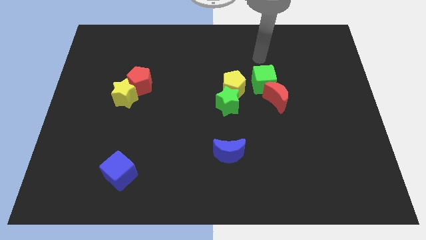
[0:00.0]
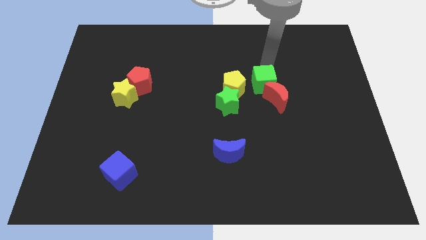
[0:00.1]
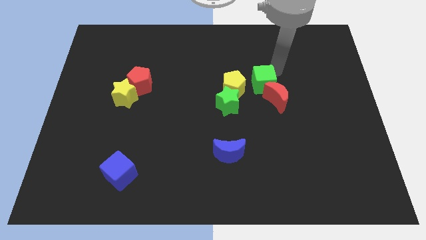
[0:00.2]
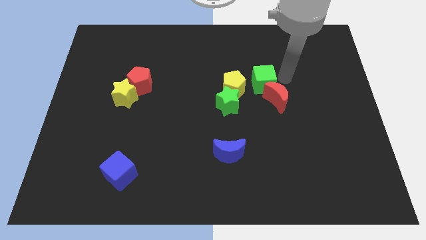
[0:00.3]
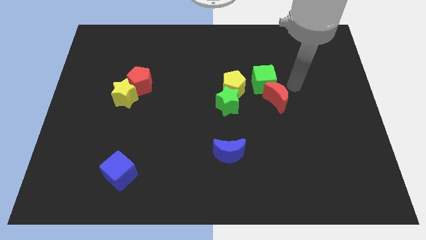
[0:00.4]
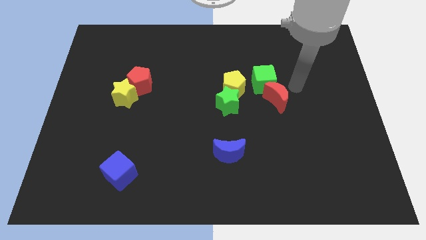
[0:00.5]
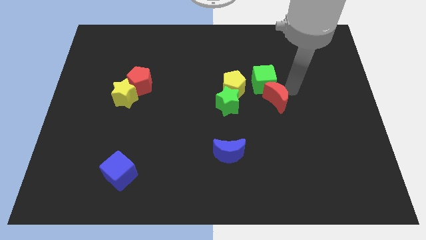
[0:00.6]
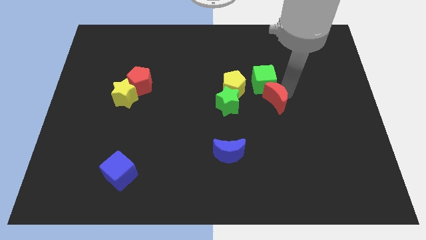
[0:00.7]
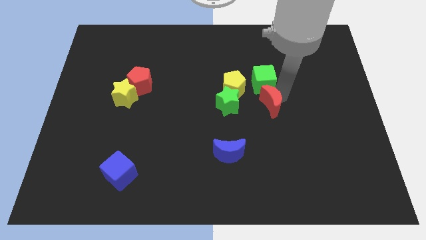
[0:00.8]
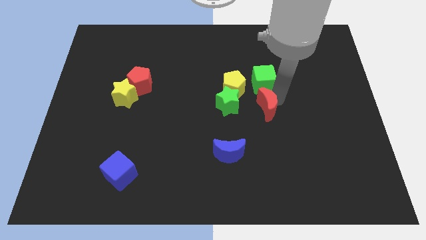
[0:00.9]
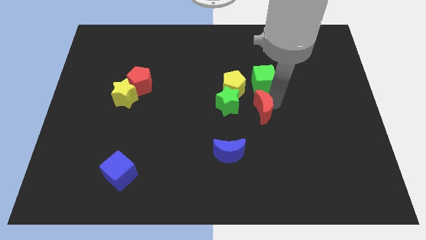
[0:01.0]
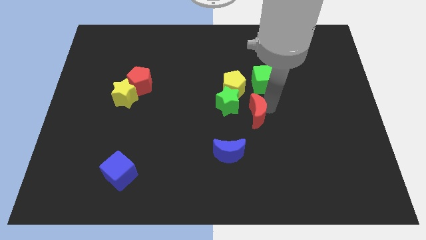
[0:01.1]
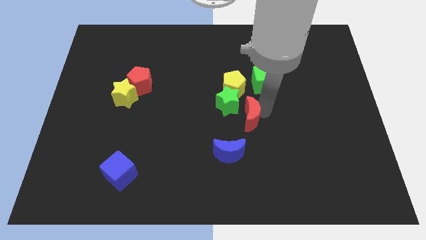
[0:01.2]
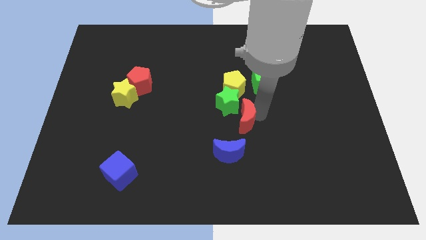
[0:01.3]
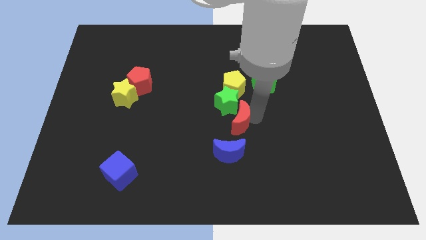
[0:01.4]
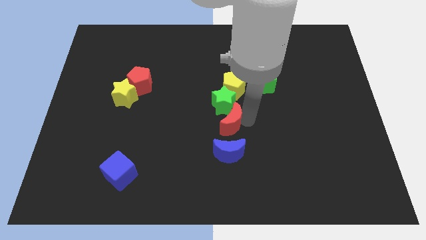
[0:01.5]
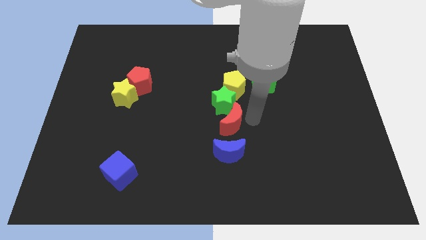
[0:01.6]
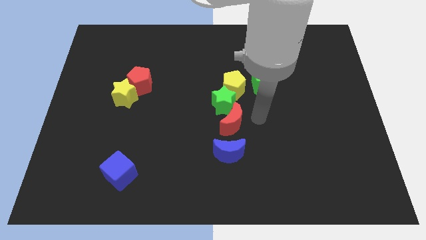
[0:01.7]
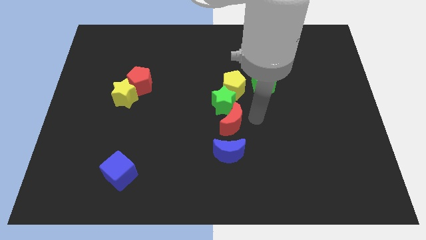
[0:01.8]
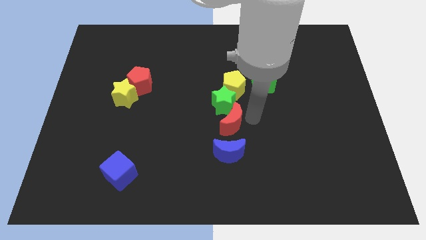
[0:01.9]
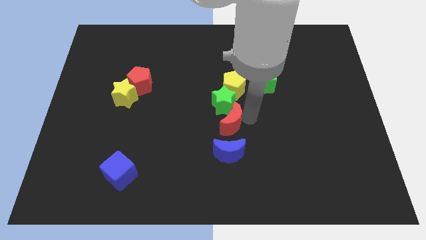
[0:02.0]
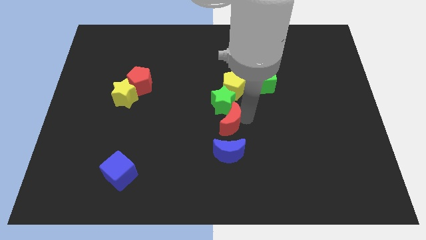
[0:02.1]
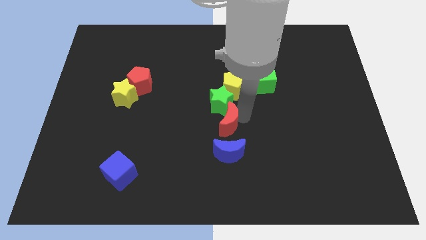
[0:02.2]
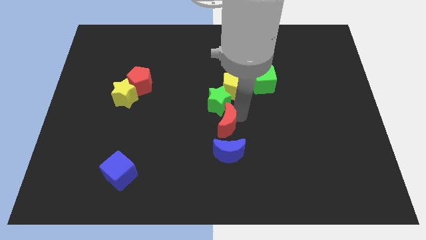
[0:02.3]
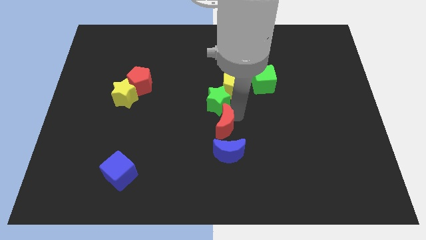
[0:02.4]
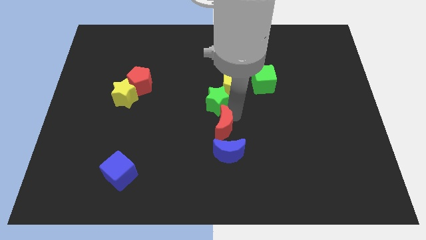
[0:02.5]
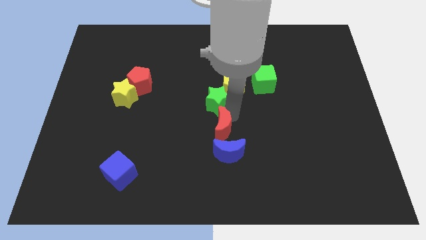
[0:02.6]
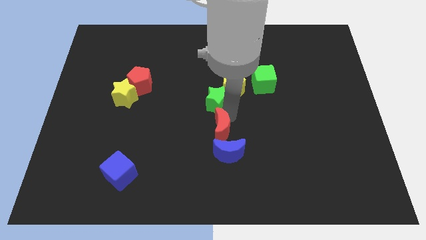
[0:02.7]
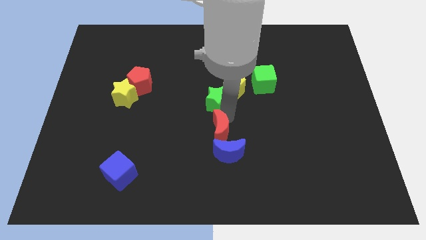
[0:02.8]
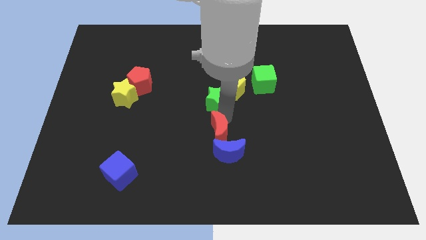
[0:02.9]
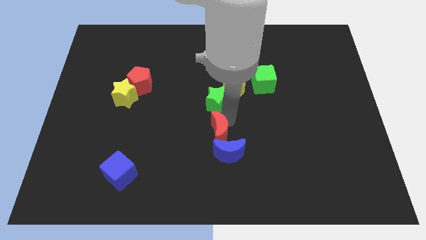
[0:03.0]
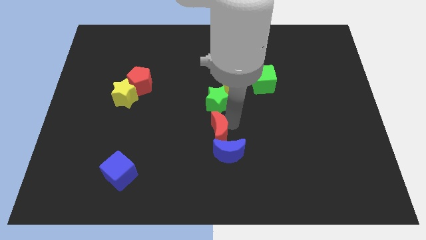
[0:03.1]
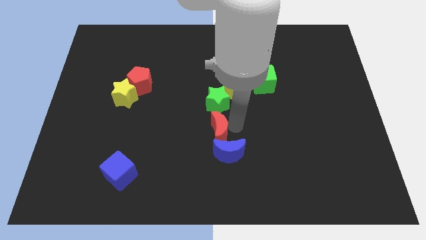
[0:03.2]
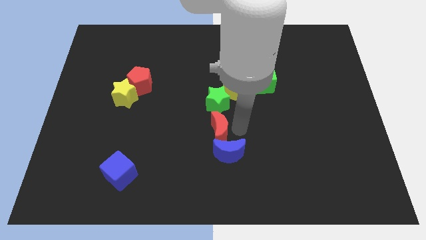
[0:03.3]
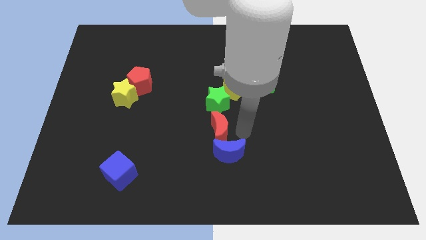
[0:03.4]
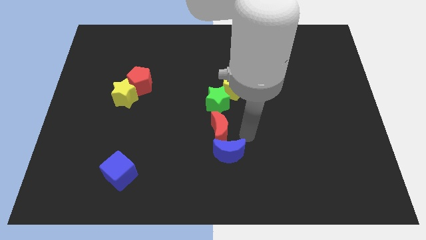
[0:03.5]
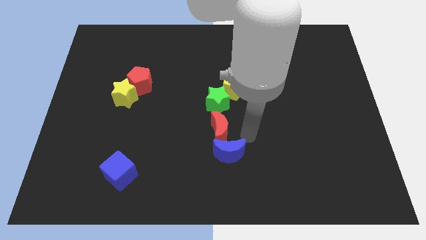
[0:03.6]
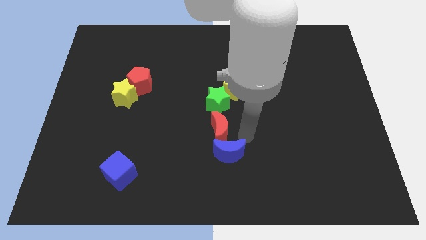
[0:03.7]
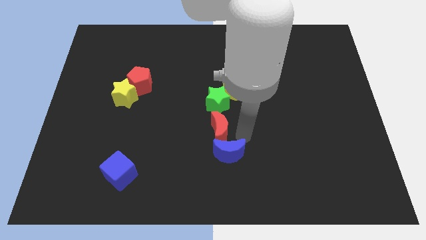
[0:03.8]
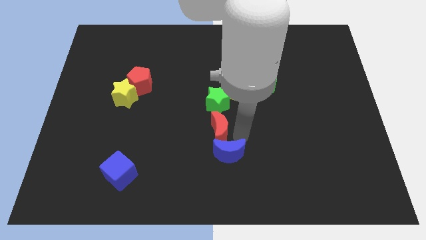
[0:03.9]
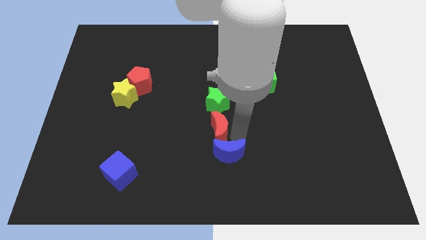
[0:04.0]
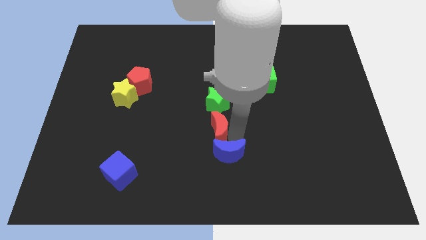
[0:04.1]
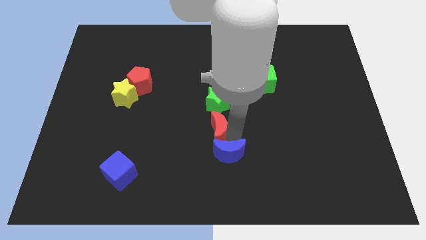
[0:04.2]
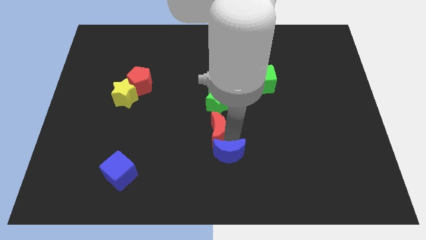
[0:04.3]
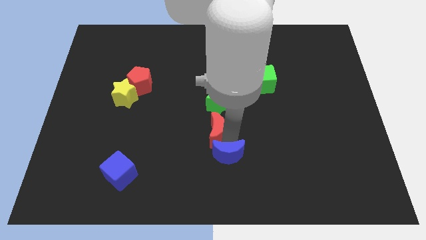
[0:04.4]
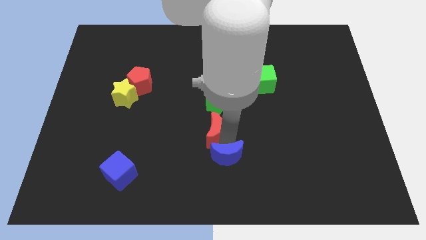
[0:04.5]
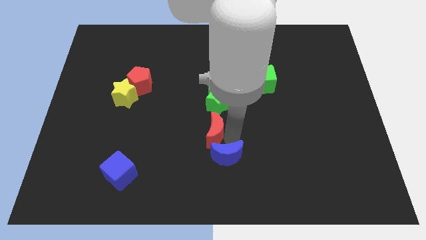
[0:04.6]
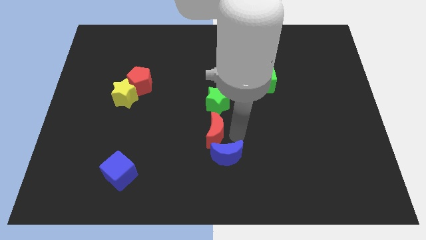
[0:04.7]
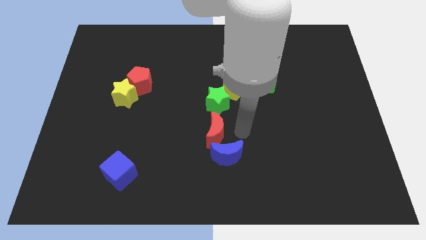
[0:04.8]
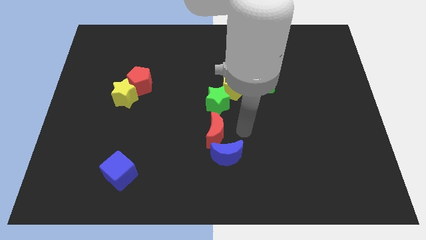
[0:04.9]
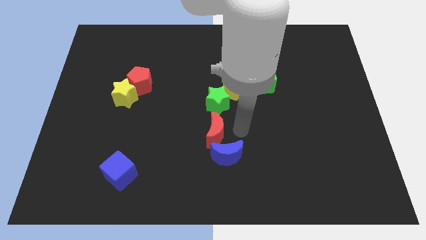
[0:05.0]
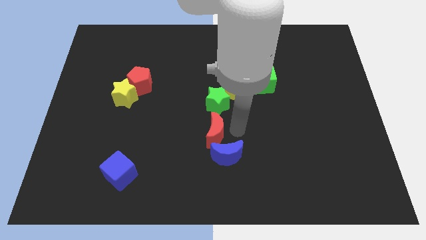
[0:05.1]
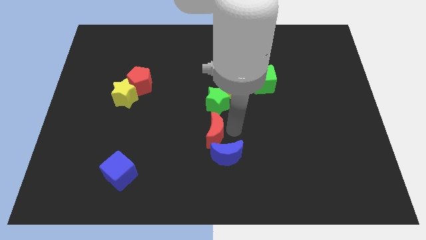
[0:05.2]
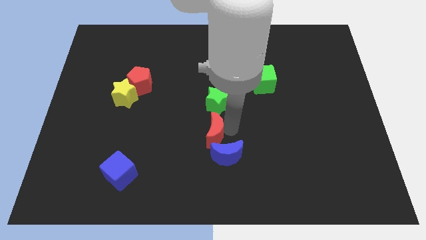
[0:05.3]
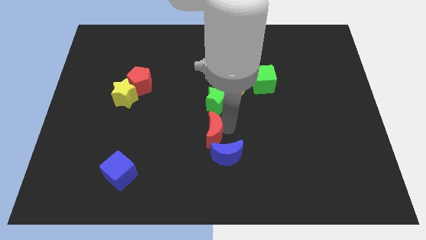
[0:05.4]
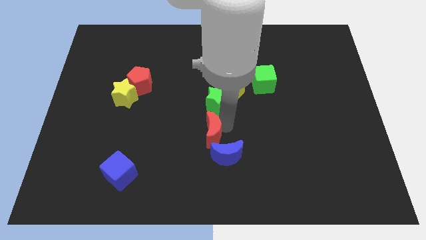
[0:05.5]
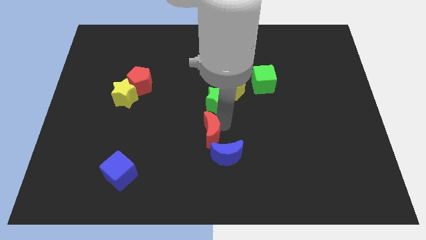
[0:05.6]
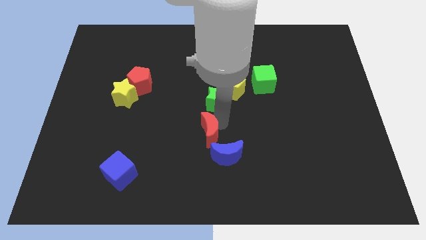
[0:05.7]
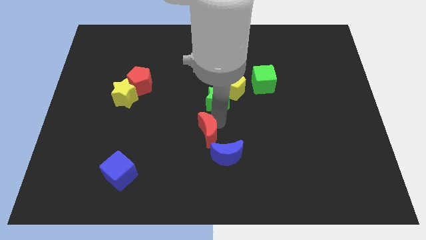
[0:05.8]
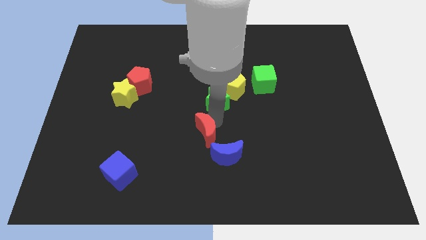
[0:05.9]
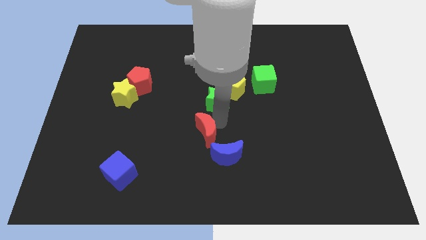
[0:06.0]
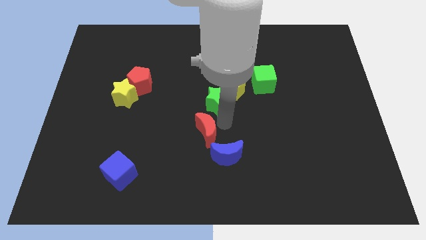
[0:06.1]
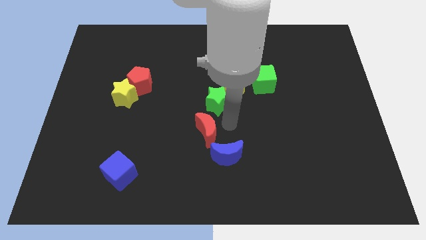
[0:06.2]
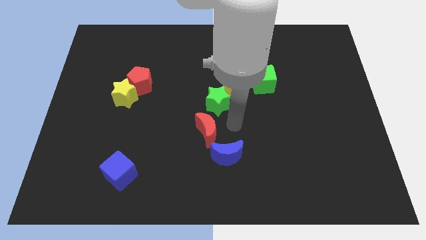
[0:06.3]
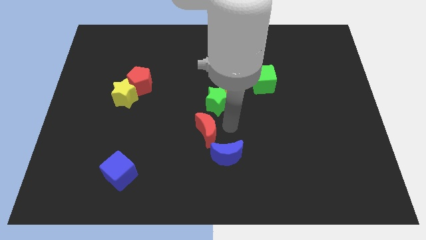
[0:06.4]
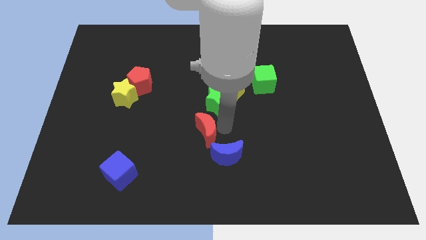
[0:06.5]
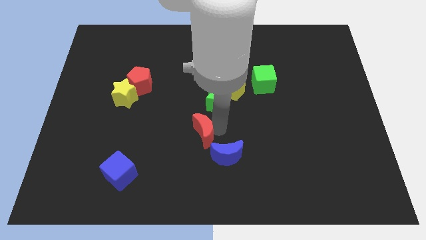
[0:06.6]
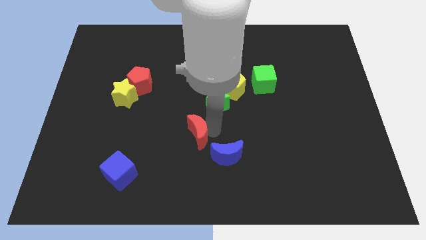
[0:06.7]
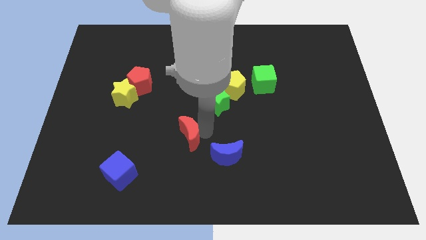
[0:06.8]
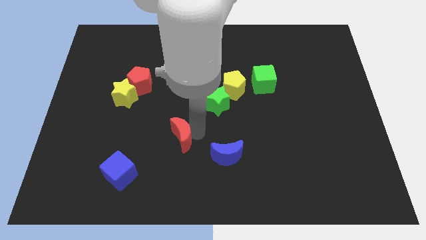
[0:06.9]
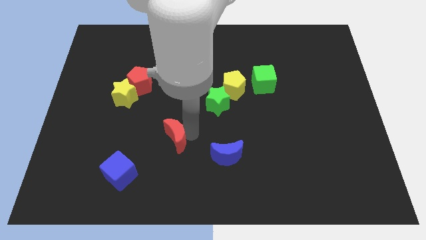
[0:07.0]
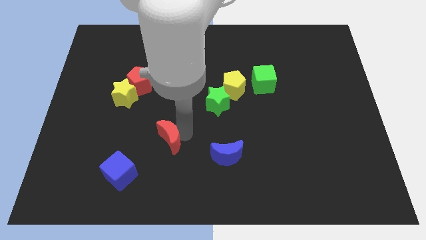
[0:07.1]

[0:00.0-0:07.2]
slide the red moon to the top right of the blue cube
